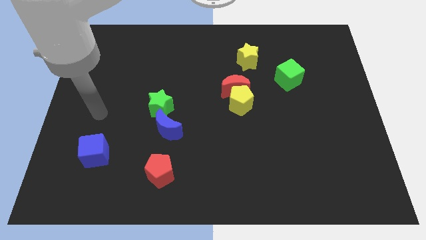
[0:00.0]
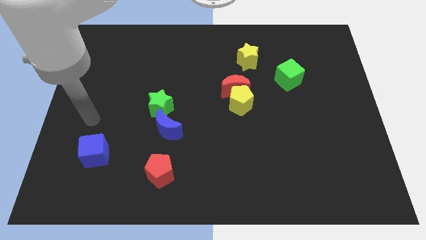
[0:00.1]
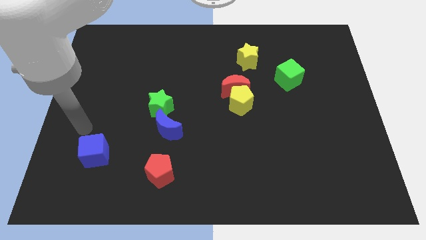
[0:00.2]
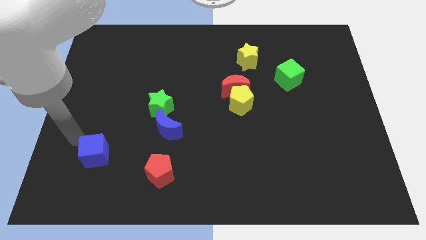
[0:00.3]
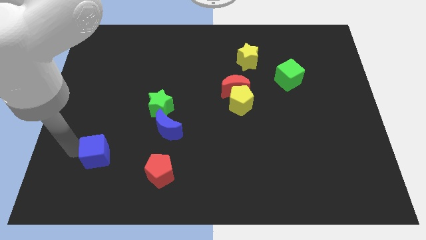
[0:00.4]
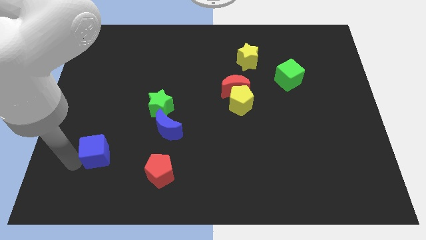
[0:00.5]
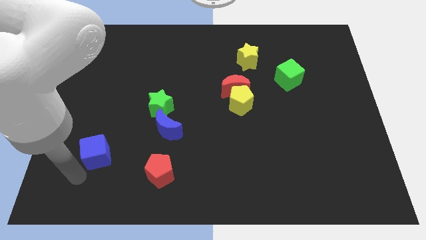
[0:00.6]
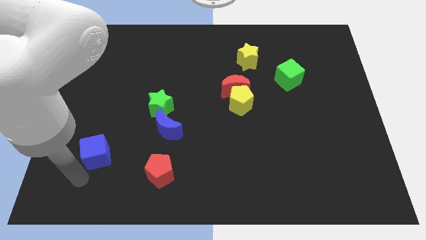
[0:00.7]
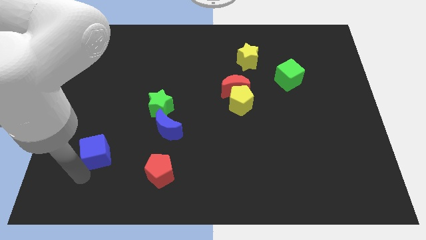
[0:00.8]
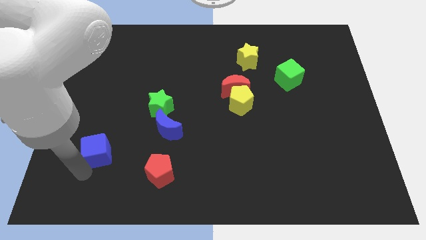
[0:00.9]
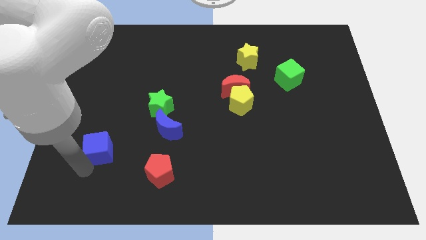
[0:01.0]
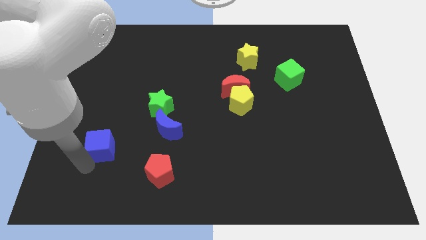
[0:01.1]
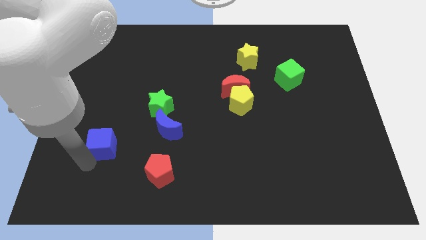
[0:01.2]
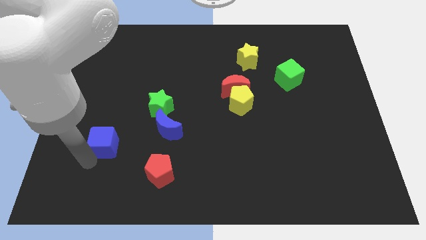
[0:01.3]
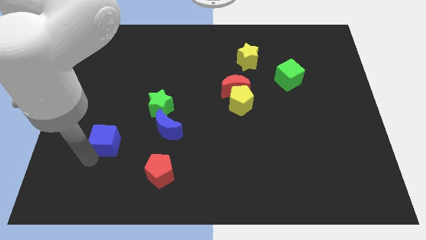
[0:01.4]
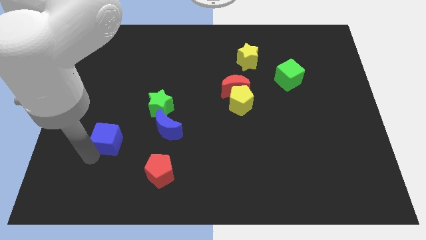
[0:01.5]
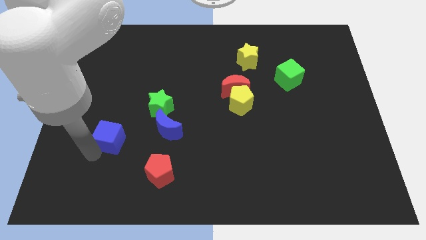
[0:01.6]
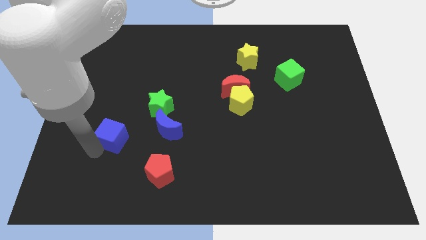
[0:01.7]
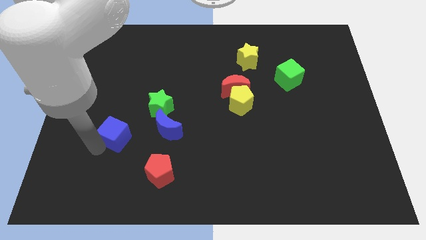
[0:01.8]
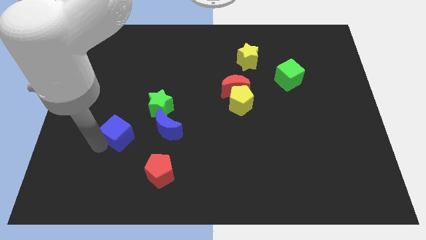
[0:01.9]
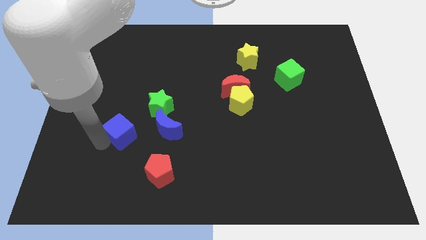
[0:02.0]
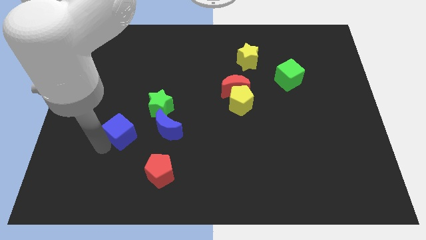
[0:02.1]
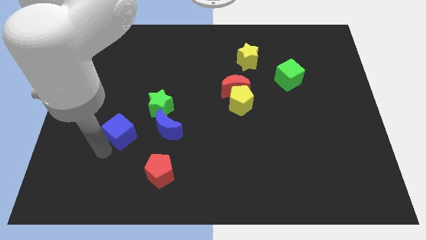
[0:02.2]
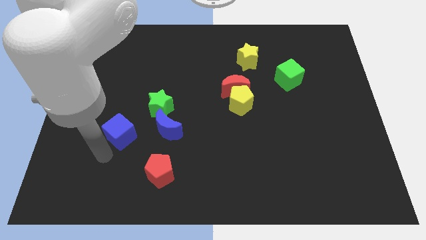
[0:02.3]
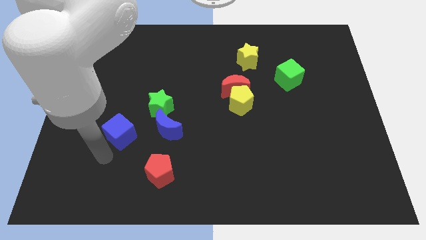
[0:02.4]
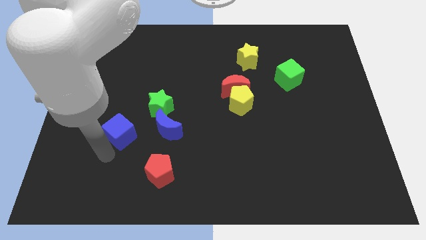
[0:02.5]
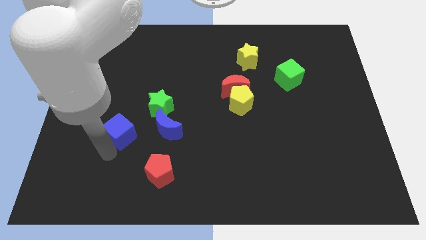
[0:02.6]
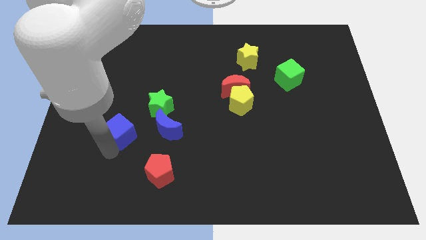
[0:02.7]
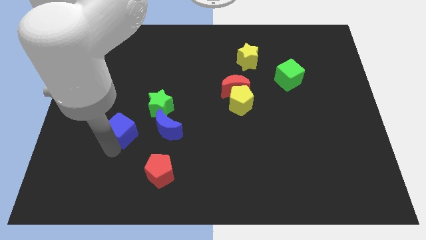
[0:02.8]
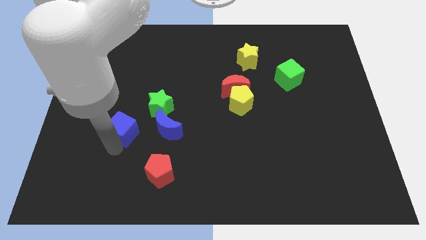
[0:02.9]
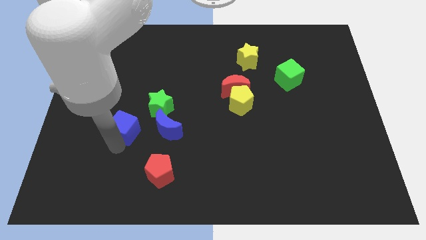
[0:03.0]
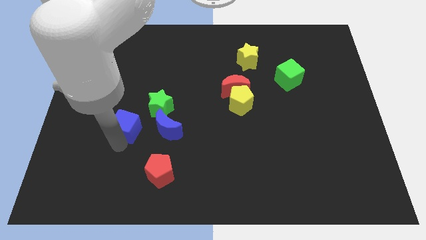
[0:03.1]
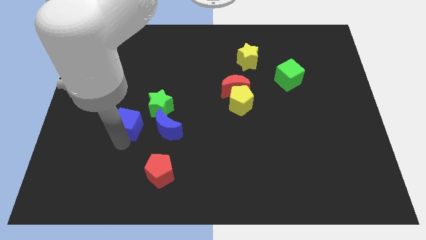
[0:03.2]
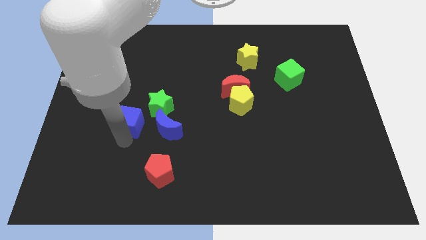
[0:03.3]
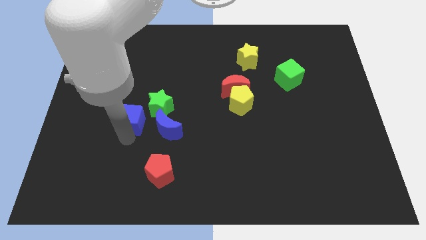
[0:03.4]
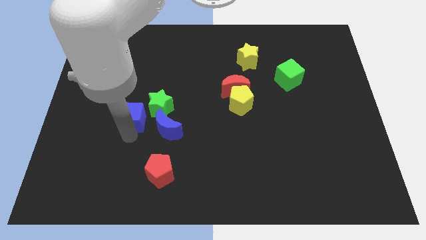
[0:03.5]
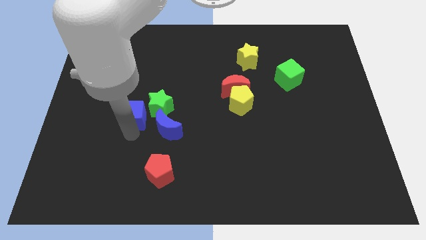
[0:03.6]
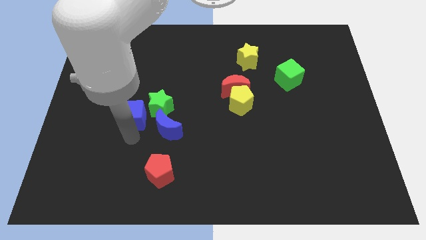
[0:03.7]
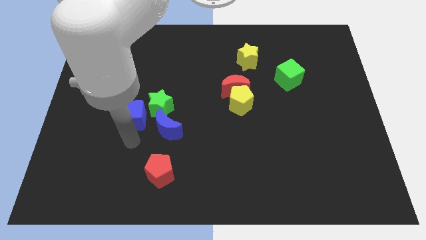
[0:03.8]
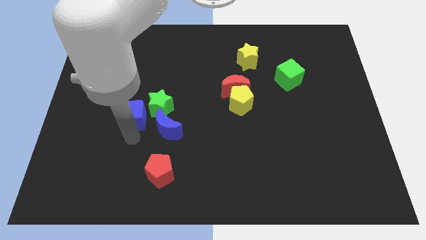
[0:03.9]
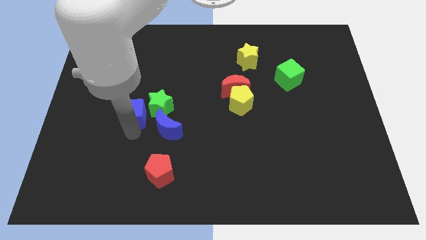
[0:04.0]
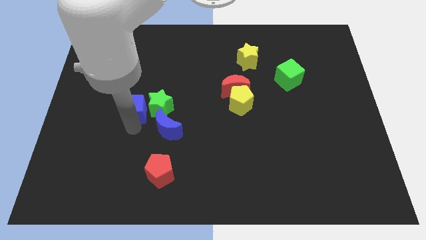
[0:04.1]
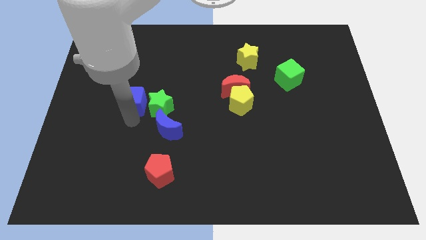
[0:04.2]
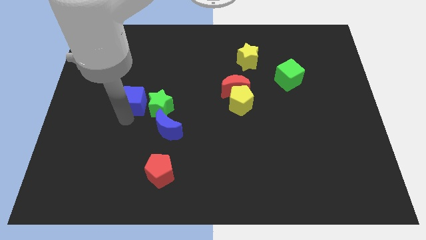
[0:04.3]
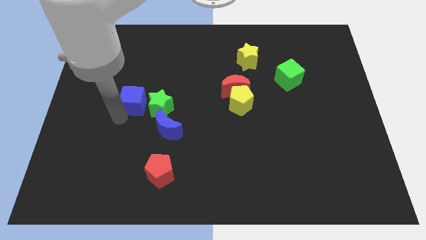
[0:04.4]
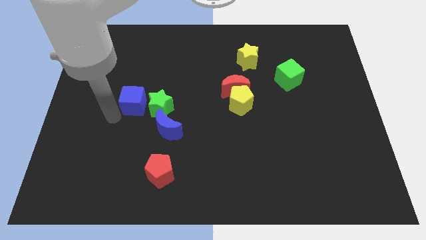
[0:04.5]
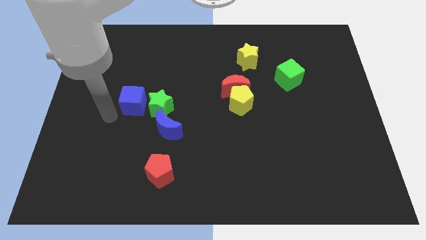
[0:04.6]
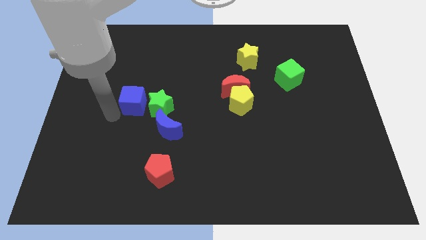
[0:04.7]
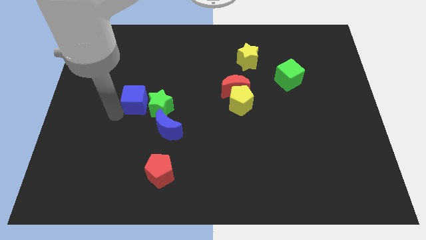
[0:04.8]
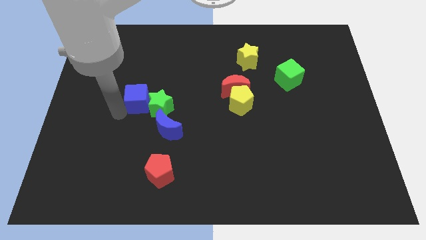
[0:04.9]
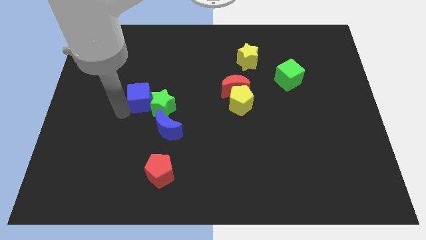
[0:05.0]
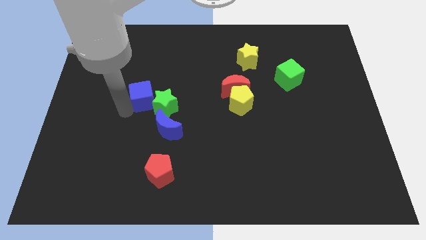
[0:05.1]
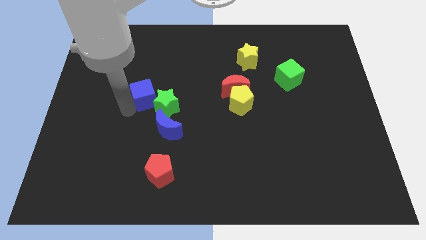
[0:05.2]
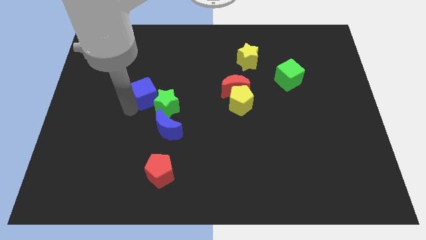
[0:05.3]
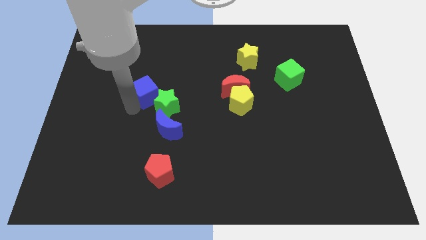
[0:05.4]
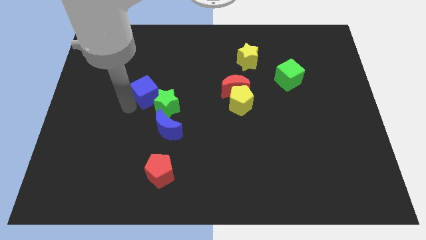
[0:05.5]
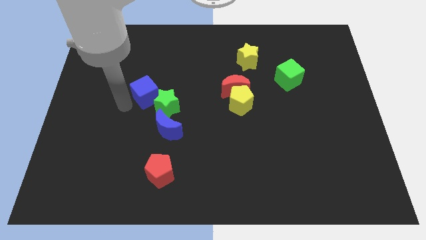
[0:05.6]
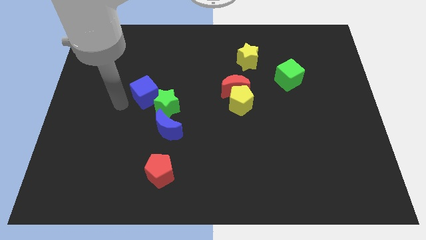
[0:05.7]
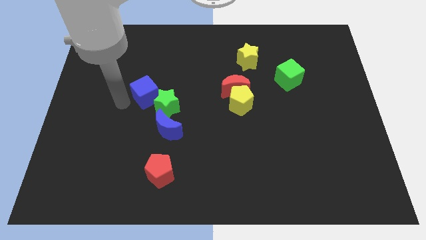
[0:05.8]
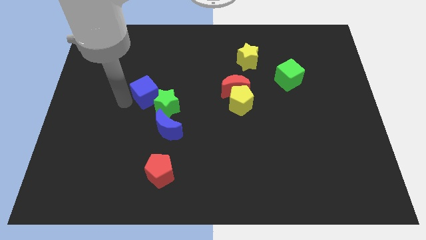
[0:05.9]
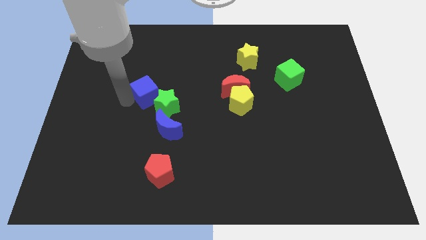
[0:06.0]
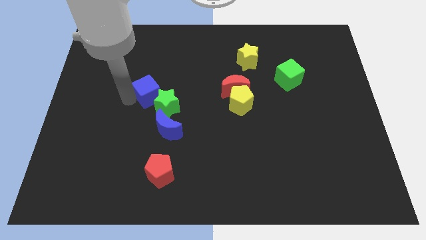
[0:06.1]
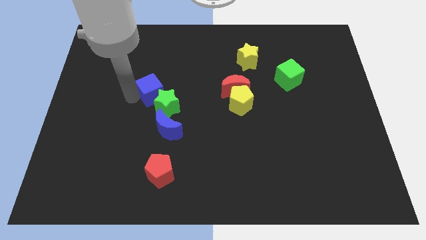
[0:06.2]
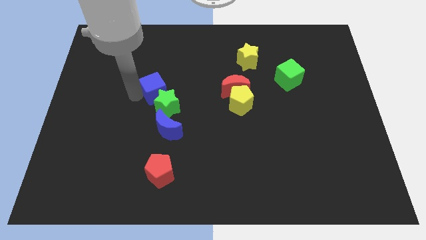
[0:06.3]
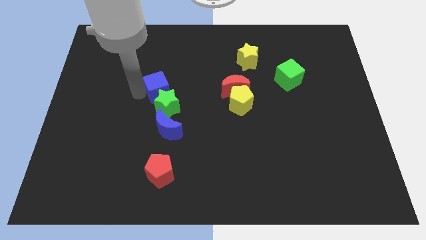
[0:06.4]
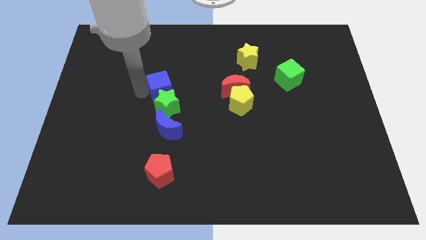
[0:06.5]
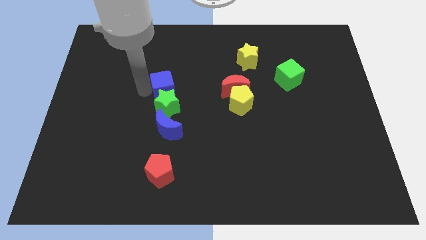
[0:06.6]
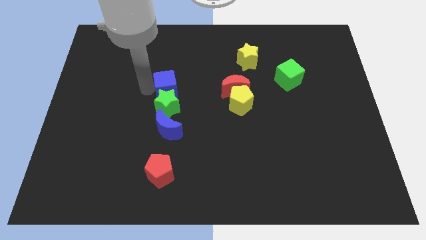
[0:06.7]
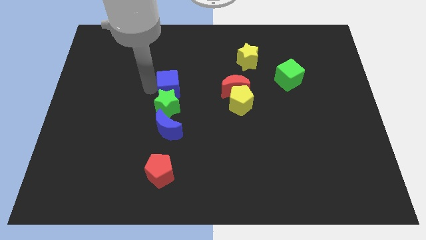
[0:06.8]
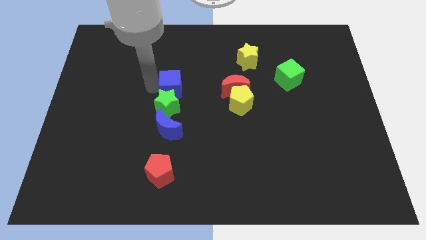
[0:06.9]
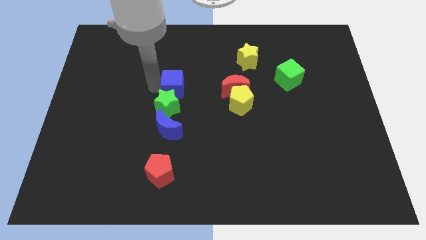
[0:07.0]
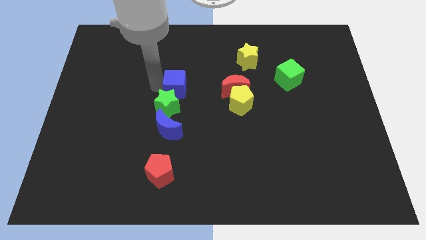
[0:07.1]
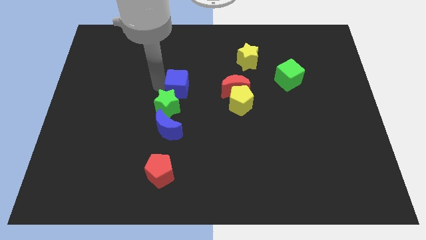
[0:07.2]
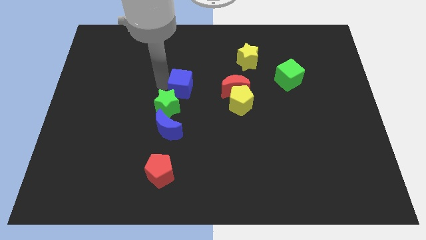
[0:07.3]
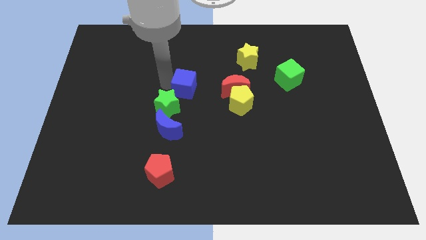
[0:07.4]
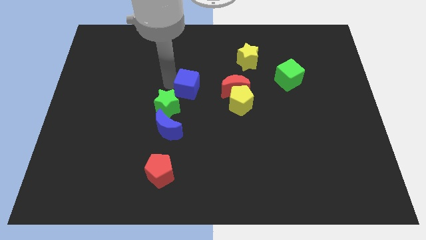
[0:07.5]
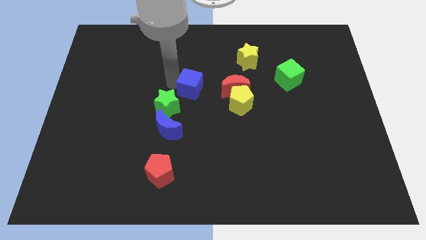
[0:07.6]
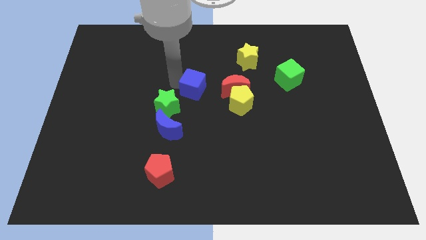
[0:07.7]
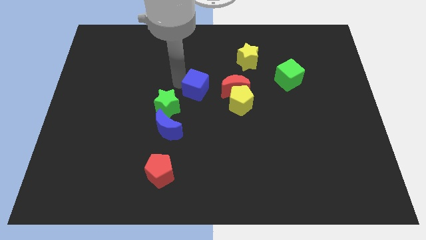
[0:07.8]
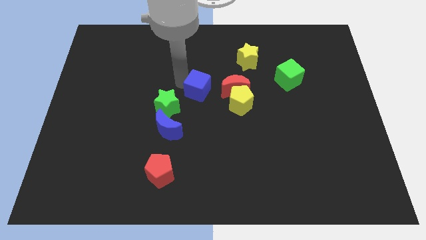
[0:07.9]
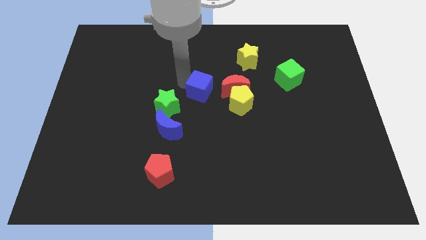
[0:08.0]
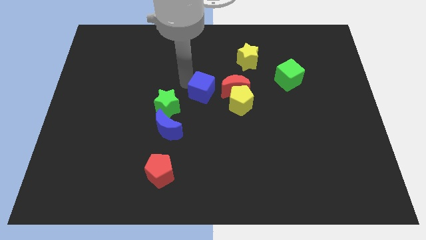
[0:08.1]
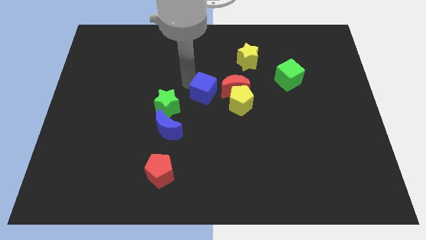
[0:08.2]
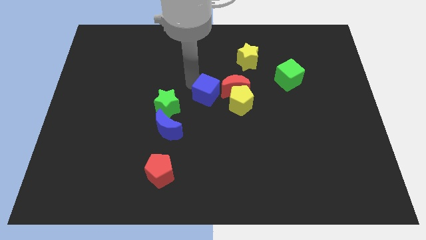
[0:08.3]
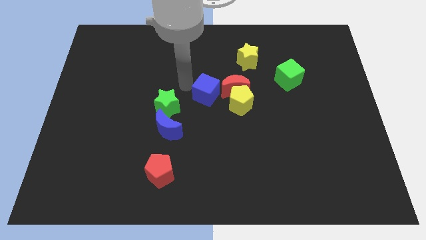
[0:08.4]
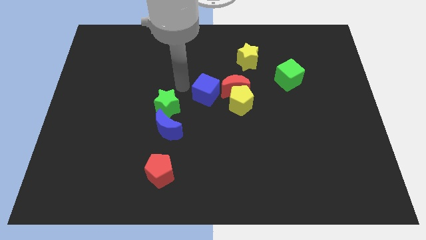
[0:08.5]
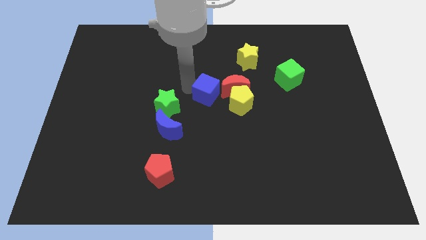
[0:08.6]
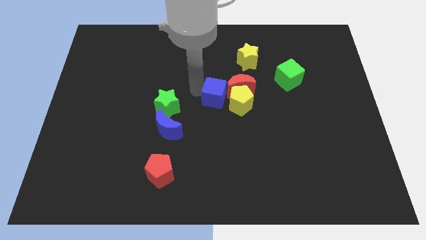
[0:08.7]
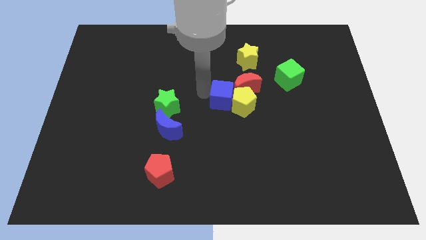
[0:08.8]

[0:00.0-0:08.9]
slide the blue cube to the yellow pentagon
